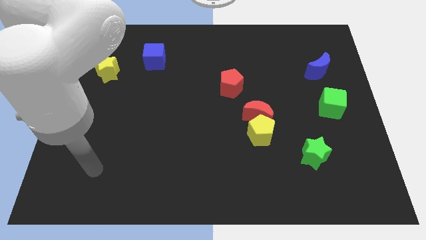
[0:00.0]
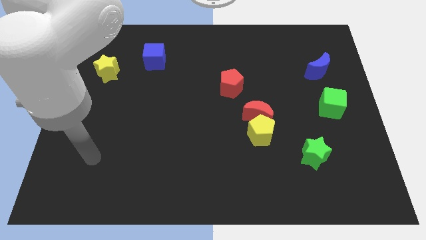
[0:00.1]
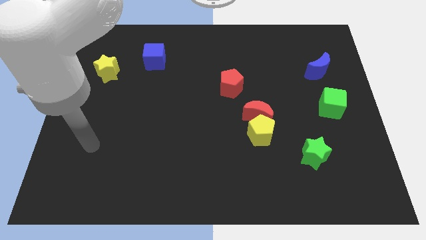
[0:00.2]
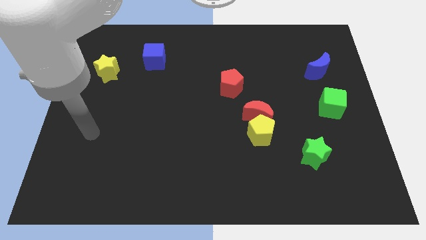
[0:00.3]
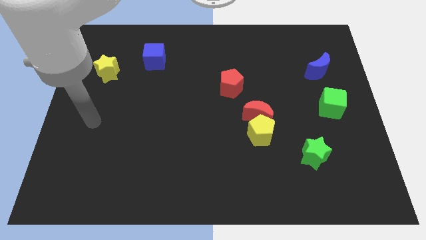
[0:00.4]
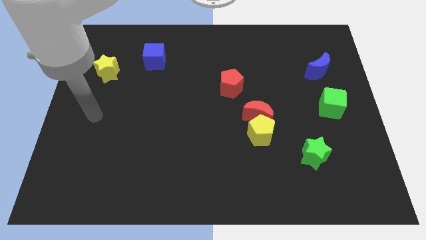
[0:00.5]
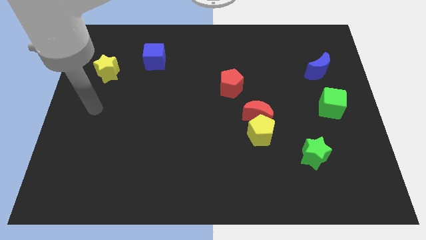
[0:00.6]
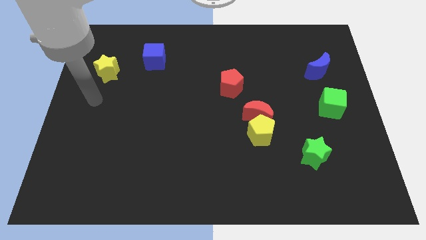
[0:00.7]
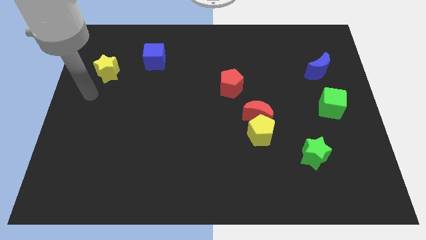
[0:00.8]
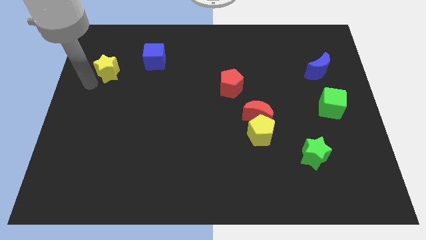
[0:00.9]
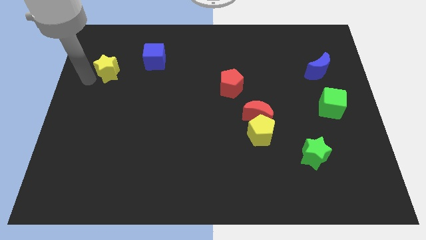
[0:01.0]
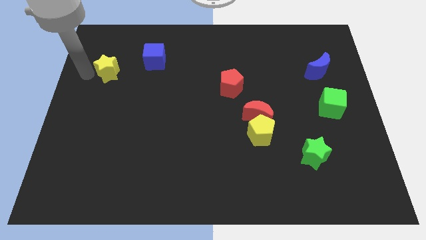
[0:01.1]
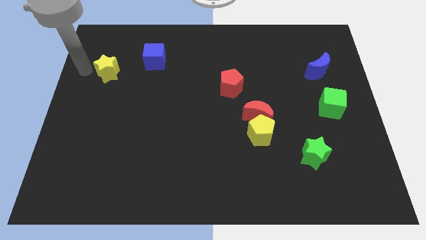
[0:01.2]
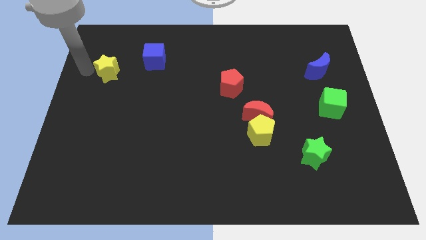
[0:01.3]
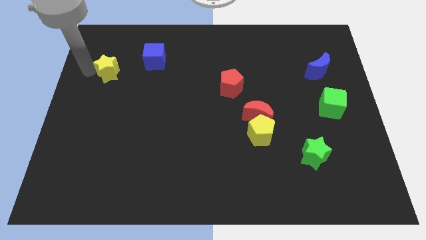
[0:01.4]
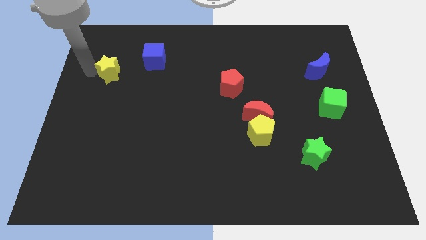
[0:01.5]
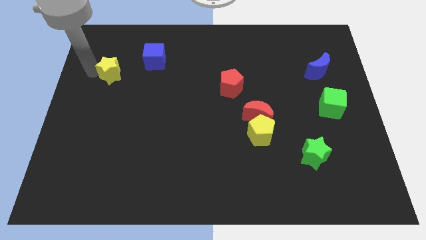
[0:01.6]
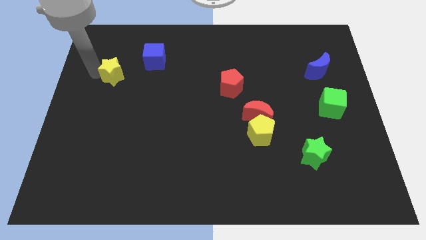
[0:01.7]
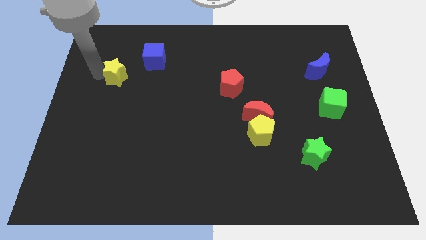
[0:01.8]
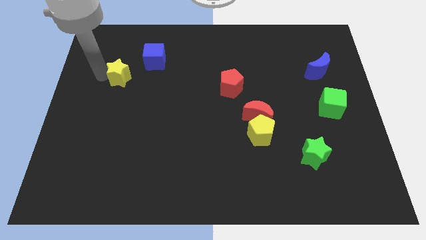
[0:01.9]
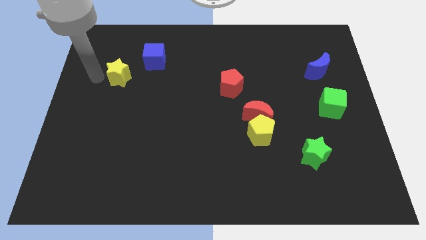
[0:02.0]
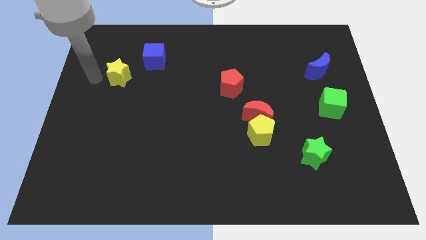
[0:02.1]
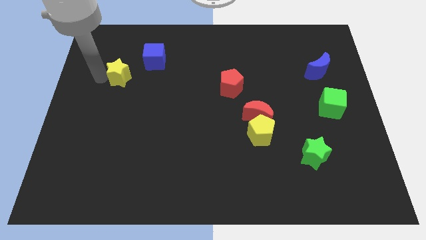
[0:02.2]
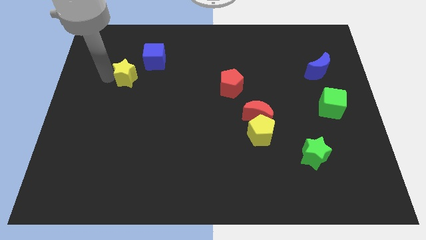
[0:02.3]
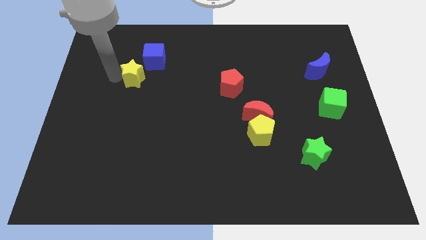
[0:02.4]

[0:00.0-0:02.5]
push the yellow star right somewhat

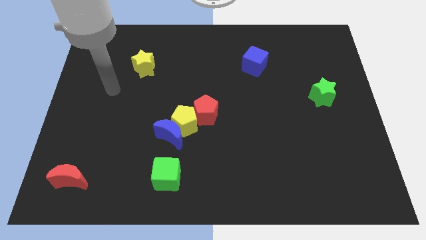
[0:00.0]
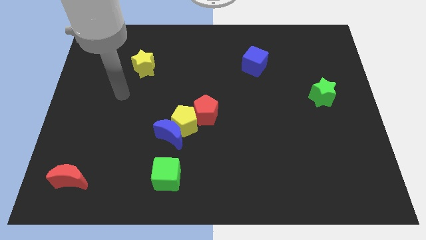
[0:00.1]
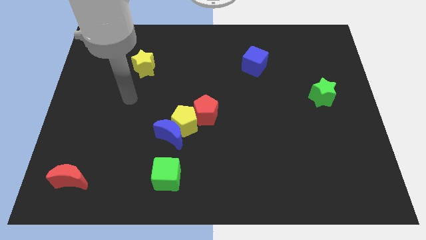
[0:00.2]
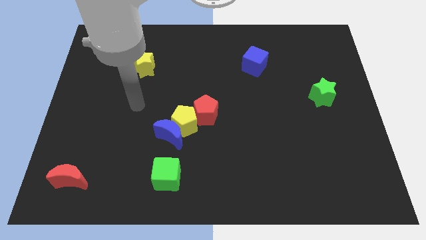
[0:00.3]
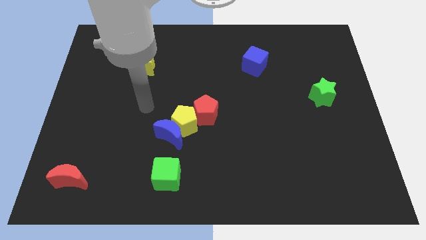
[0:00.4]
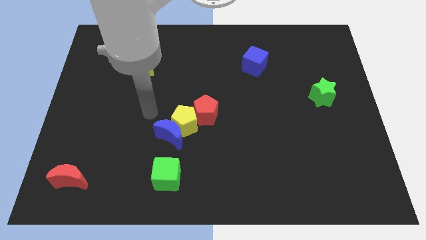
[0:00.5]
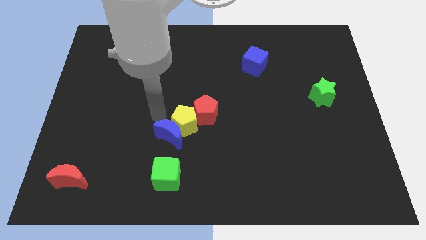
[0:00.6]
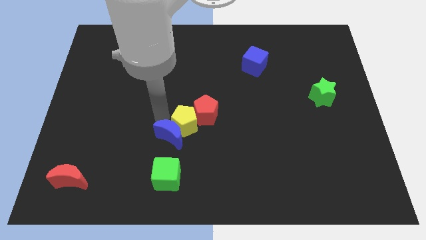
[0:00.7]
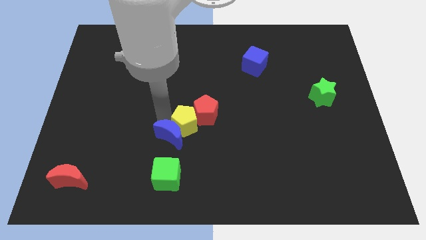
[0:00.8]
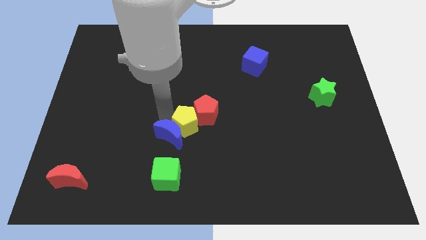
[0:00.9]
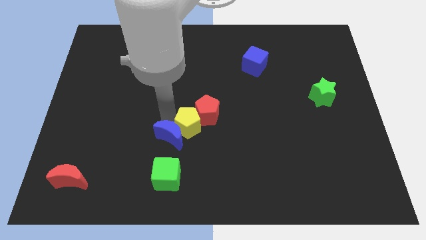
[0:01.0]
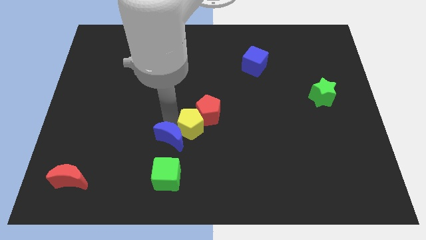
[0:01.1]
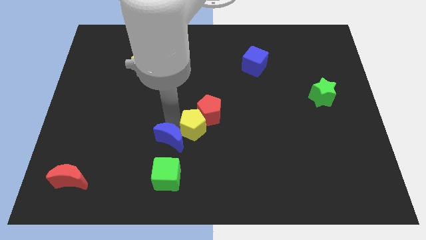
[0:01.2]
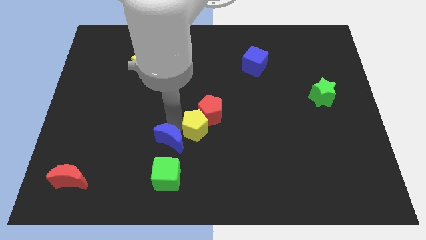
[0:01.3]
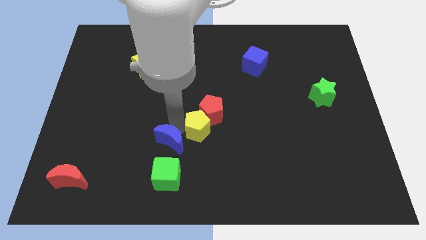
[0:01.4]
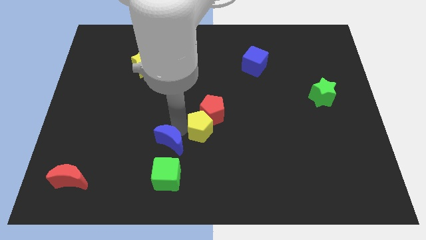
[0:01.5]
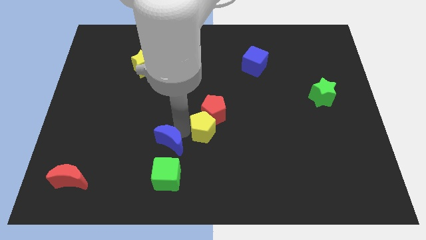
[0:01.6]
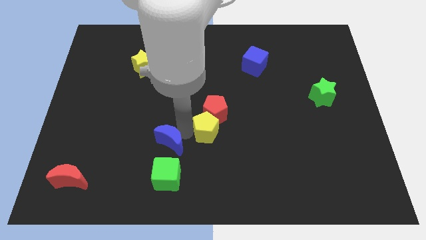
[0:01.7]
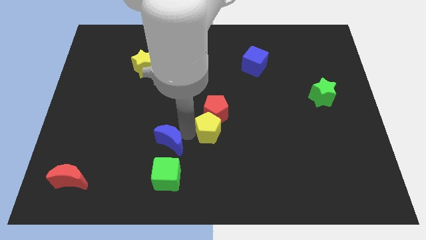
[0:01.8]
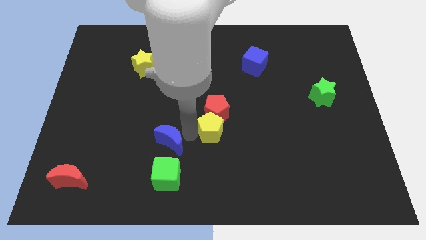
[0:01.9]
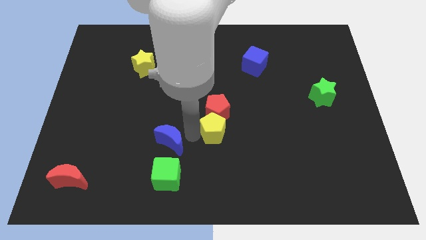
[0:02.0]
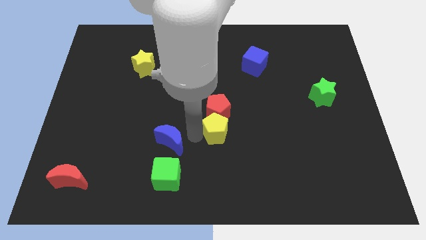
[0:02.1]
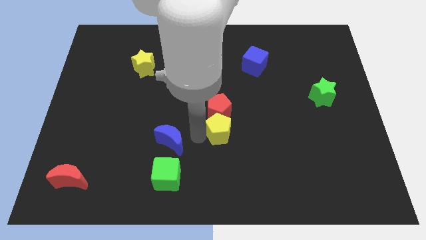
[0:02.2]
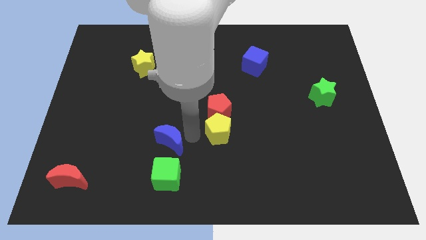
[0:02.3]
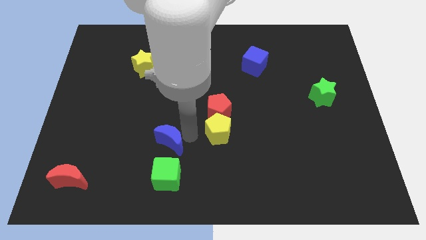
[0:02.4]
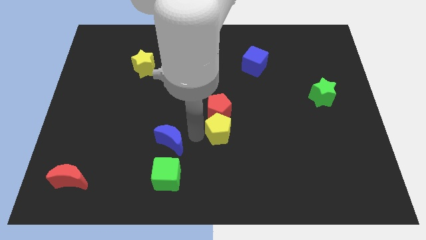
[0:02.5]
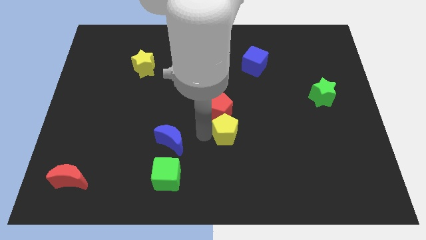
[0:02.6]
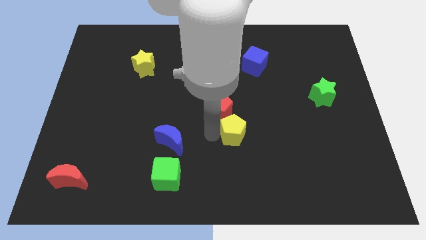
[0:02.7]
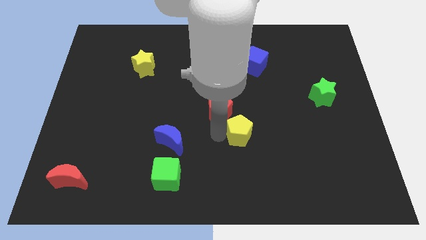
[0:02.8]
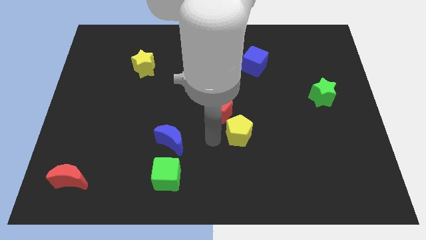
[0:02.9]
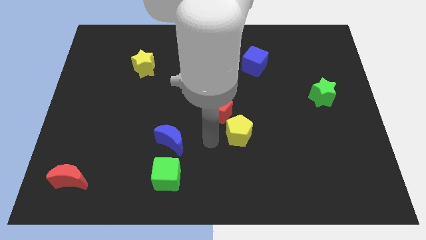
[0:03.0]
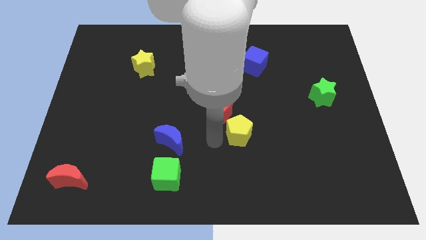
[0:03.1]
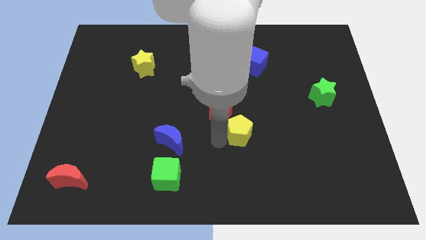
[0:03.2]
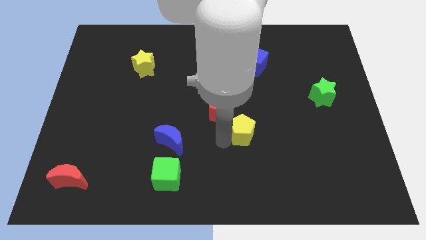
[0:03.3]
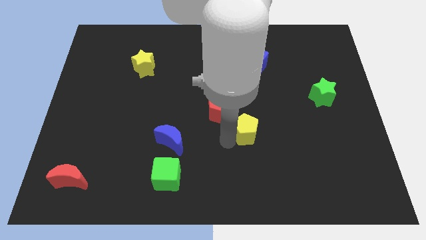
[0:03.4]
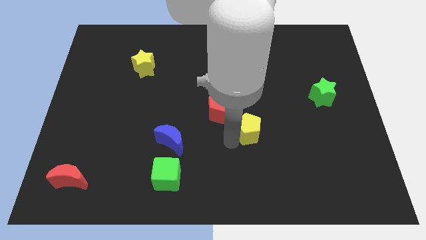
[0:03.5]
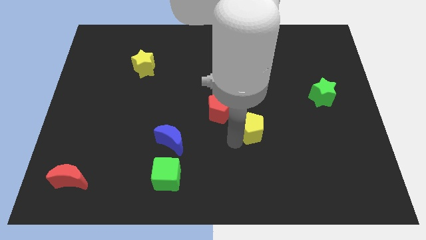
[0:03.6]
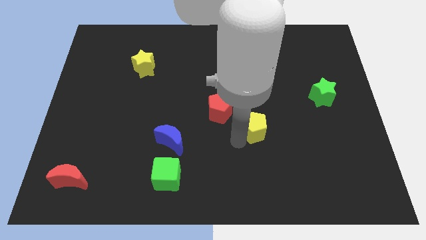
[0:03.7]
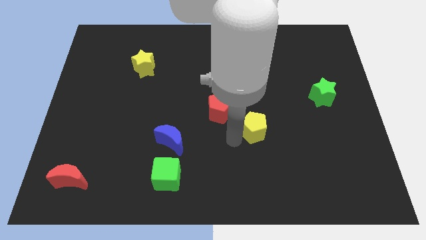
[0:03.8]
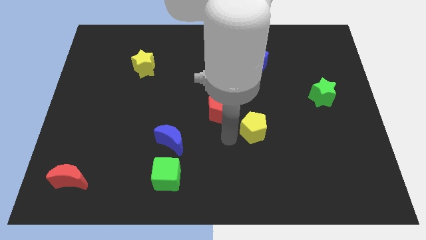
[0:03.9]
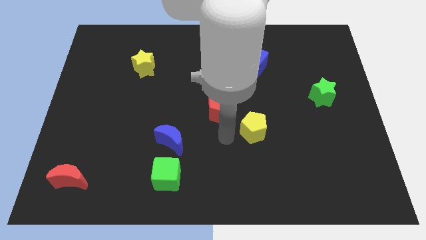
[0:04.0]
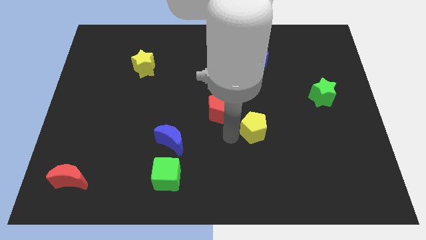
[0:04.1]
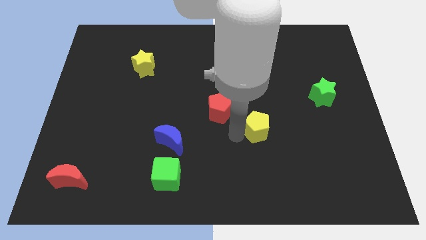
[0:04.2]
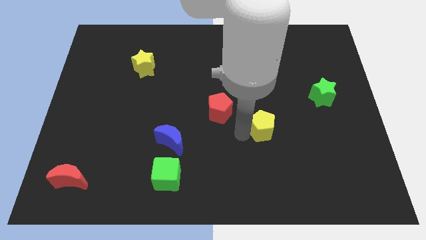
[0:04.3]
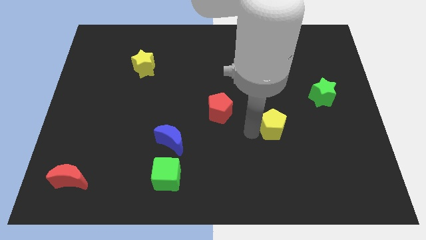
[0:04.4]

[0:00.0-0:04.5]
slide the yellow pentagon right

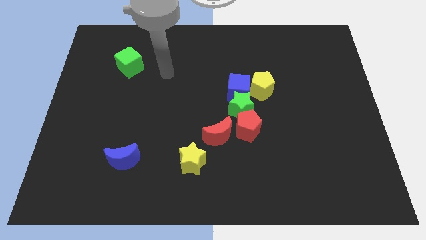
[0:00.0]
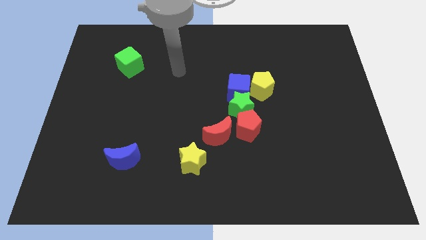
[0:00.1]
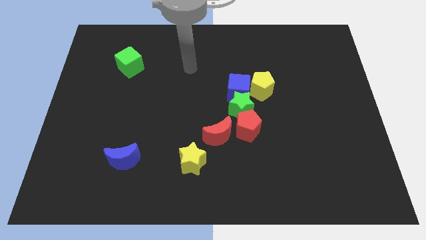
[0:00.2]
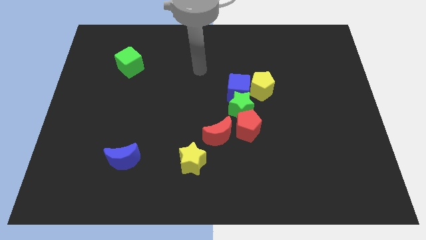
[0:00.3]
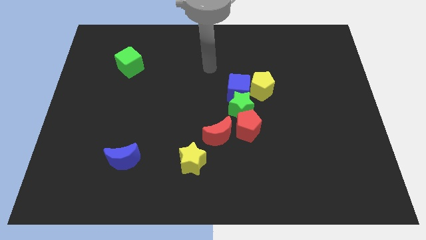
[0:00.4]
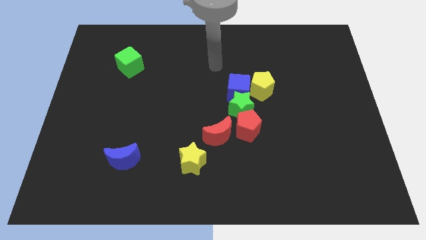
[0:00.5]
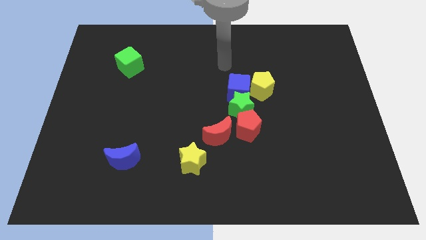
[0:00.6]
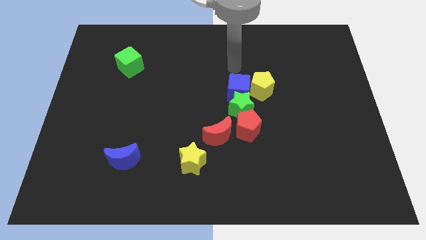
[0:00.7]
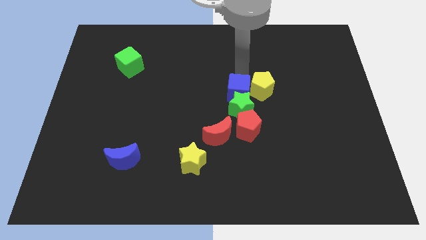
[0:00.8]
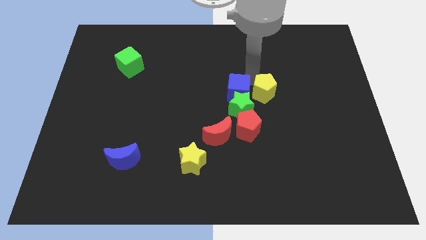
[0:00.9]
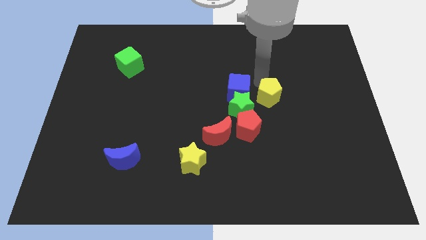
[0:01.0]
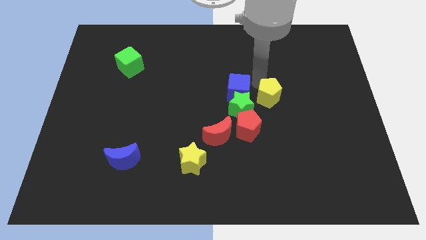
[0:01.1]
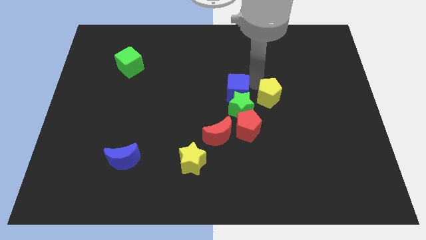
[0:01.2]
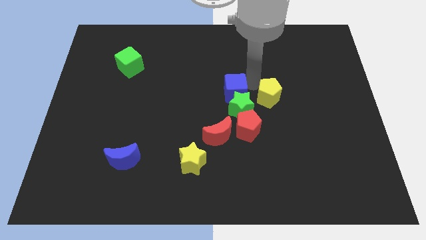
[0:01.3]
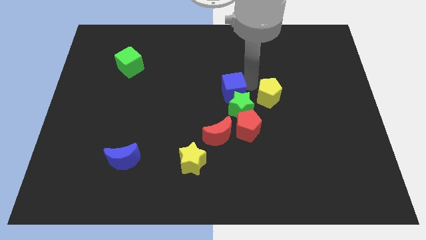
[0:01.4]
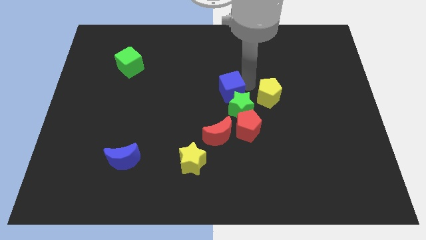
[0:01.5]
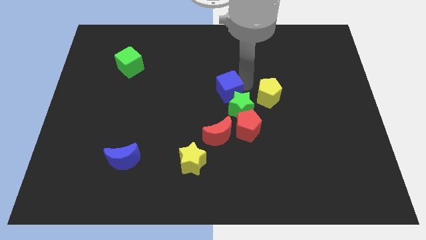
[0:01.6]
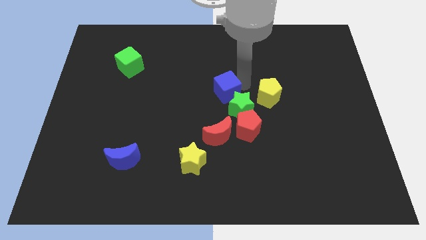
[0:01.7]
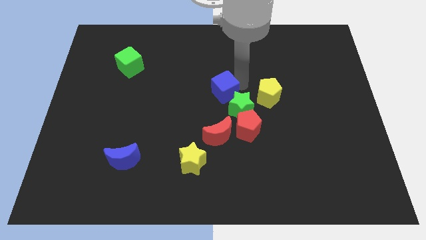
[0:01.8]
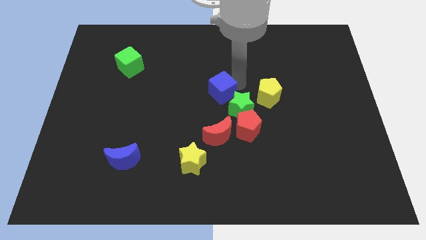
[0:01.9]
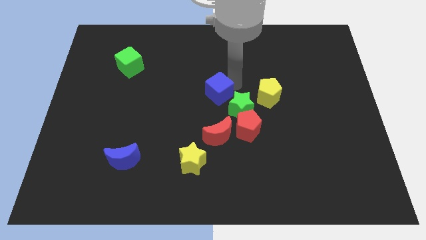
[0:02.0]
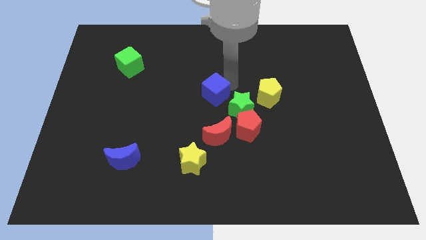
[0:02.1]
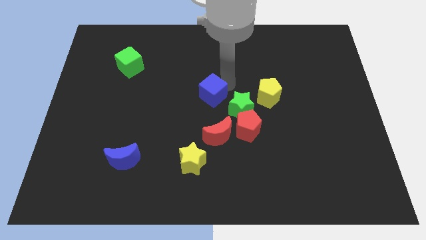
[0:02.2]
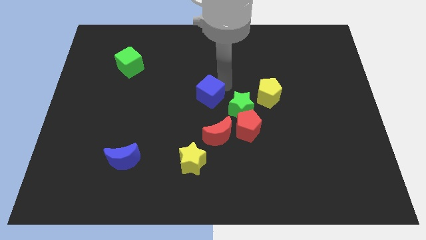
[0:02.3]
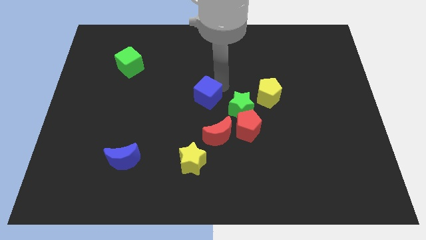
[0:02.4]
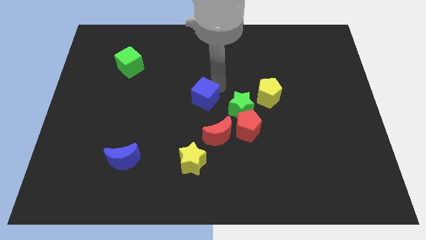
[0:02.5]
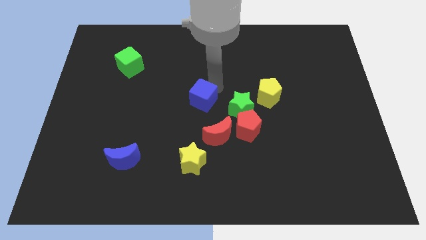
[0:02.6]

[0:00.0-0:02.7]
slide the blue cube downwards and left diagonally somewhat
